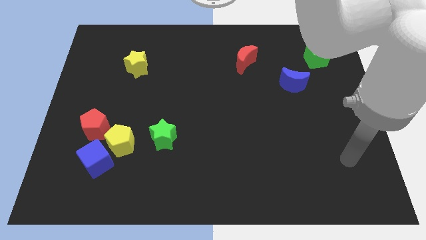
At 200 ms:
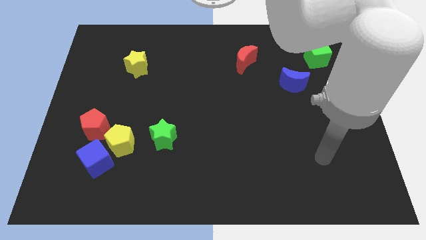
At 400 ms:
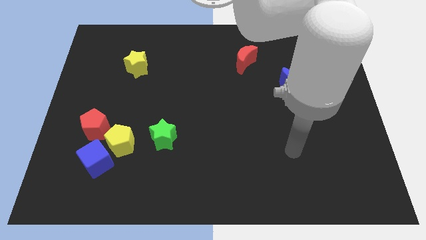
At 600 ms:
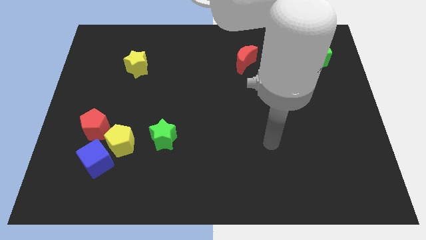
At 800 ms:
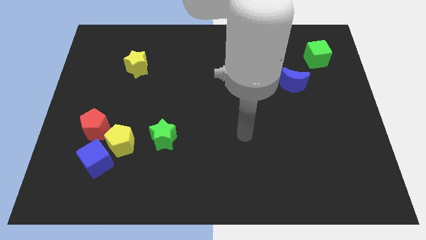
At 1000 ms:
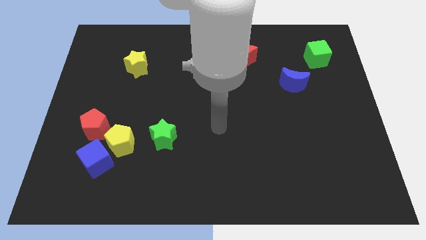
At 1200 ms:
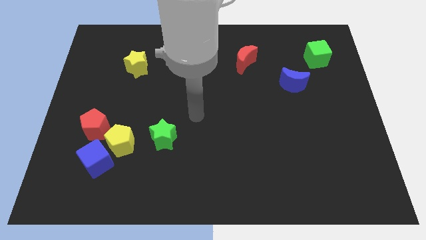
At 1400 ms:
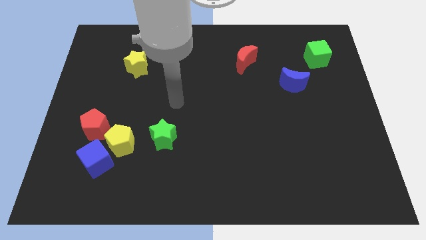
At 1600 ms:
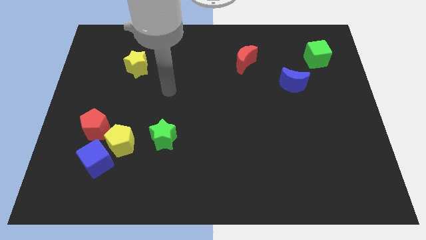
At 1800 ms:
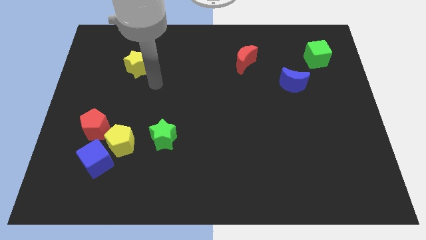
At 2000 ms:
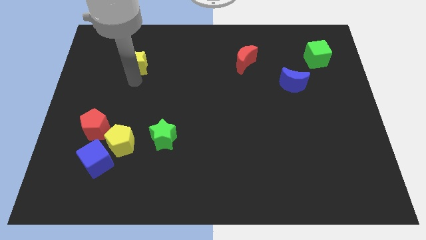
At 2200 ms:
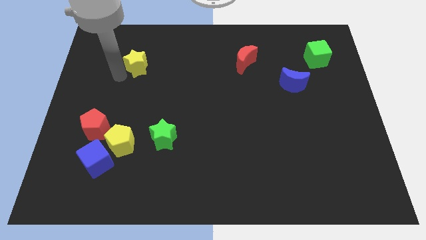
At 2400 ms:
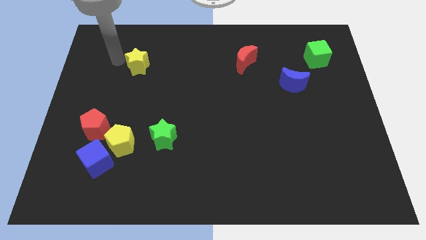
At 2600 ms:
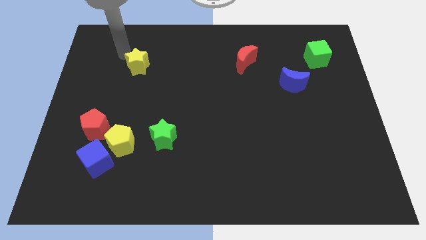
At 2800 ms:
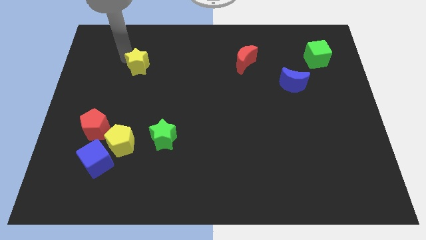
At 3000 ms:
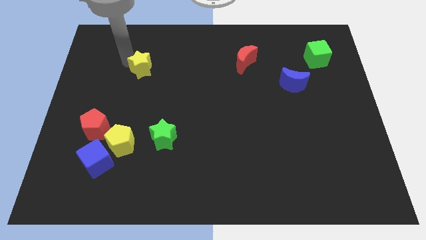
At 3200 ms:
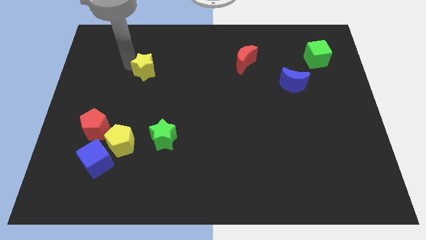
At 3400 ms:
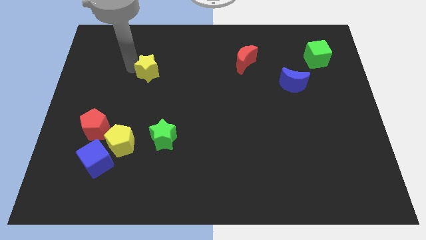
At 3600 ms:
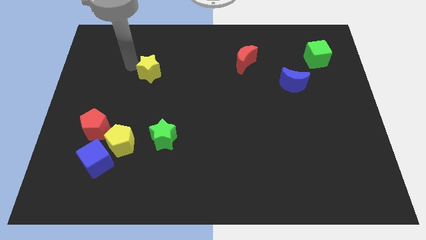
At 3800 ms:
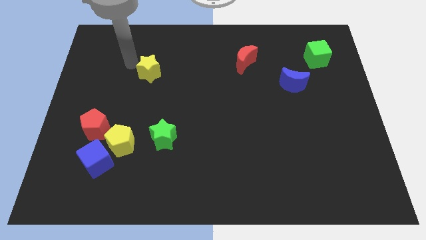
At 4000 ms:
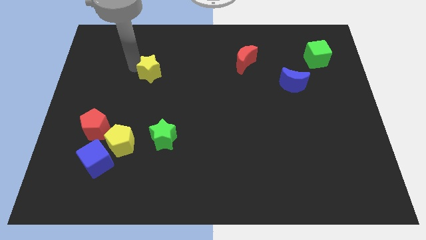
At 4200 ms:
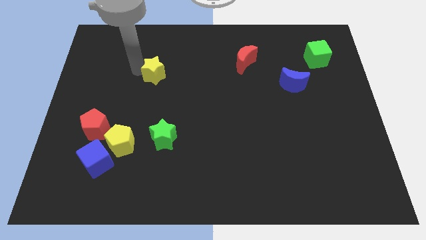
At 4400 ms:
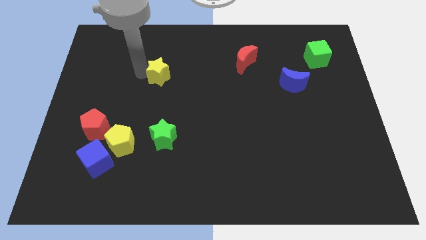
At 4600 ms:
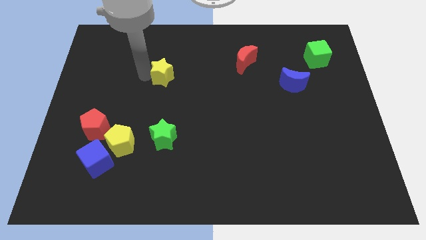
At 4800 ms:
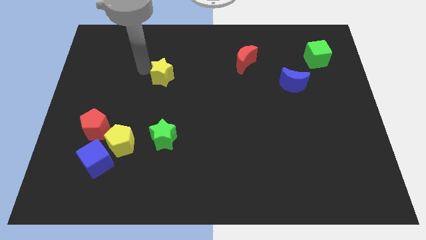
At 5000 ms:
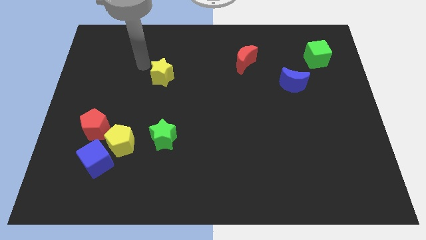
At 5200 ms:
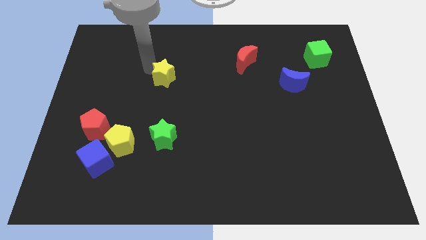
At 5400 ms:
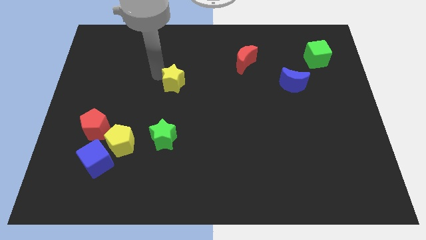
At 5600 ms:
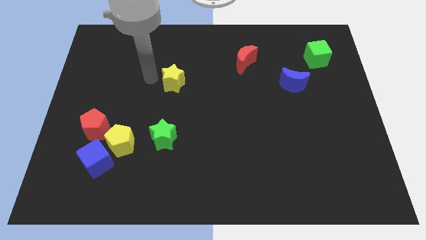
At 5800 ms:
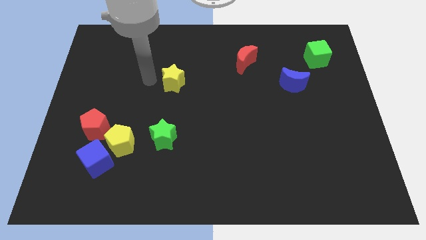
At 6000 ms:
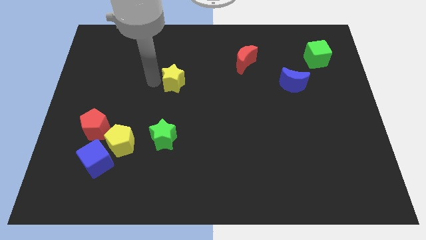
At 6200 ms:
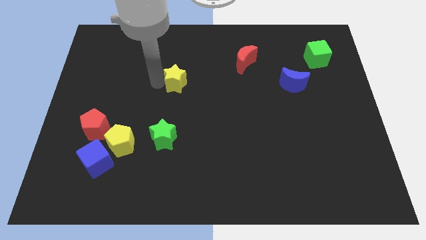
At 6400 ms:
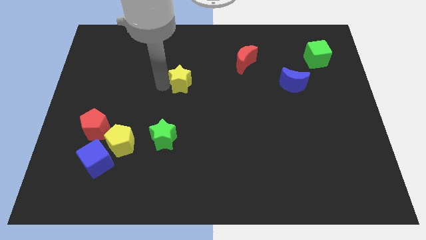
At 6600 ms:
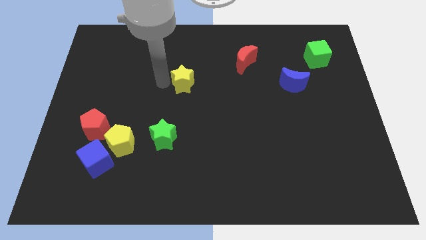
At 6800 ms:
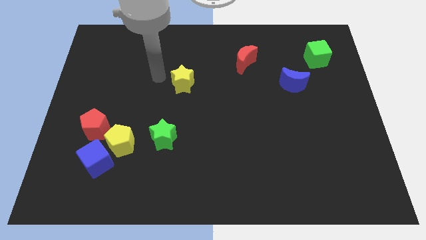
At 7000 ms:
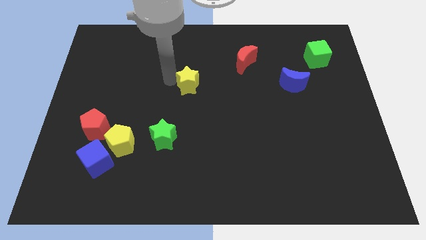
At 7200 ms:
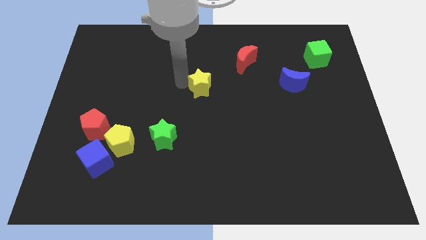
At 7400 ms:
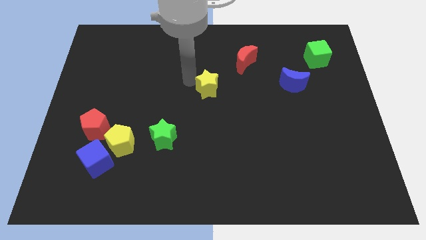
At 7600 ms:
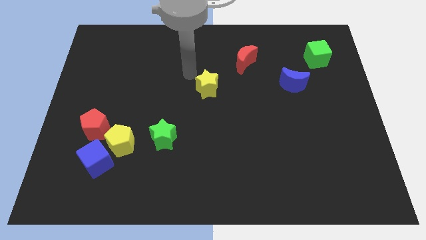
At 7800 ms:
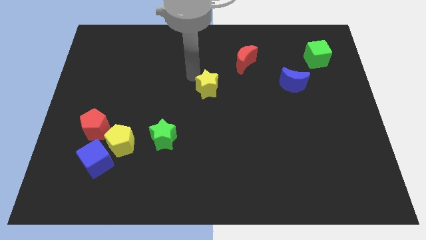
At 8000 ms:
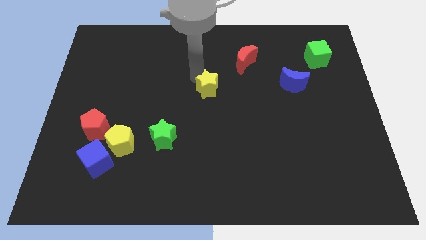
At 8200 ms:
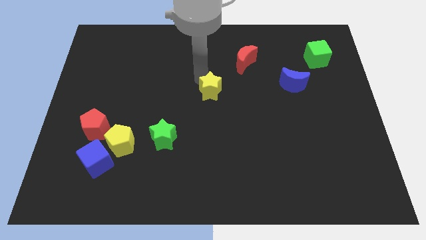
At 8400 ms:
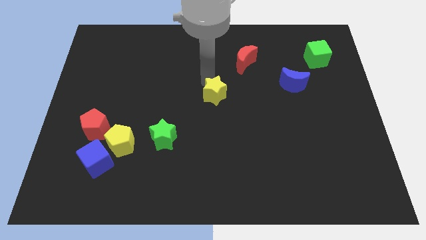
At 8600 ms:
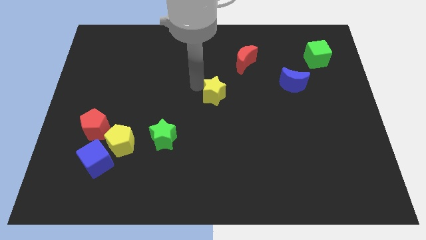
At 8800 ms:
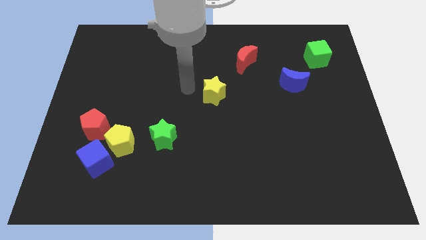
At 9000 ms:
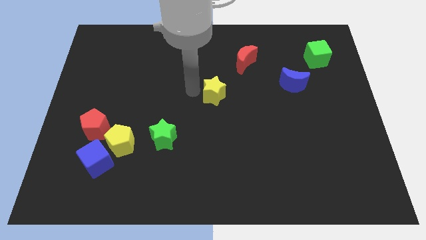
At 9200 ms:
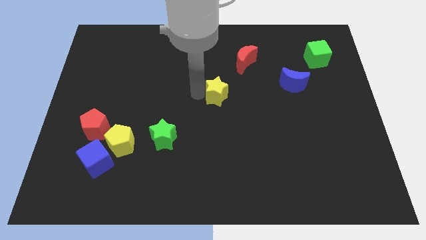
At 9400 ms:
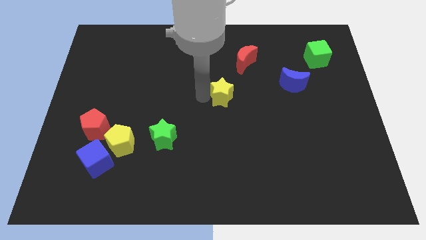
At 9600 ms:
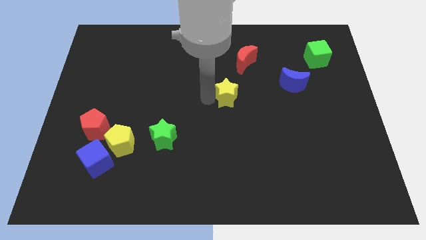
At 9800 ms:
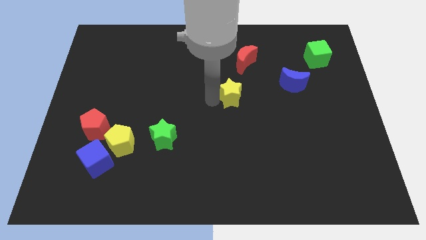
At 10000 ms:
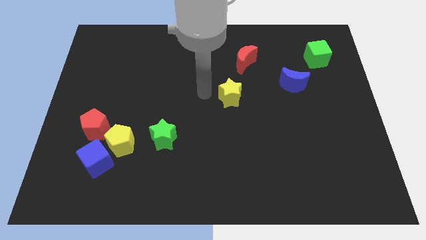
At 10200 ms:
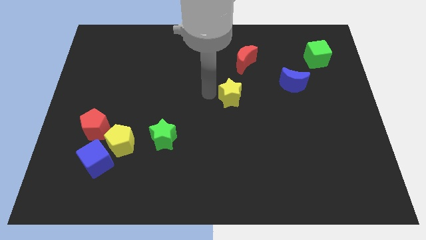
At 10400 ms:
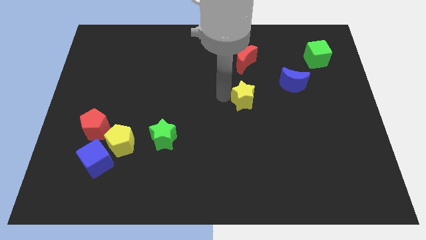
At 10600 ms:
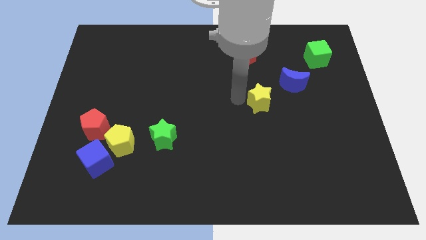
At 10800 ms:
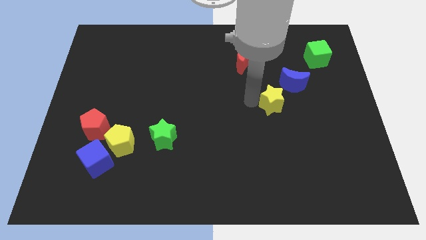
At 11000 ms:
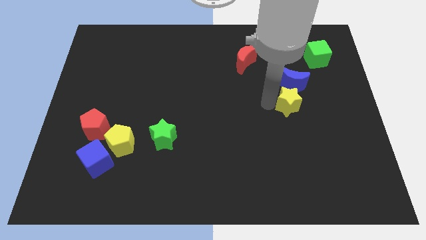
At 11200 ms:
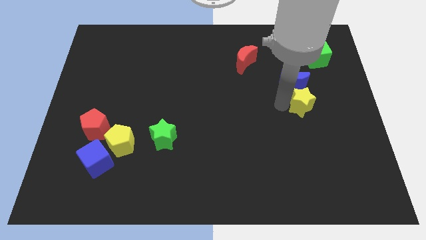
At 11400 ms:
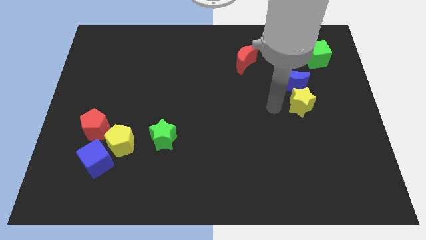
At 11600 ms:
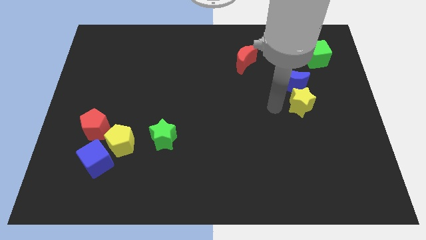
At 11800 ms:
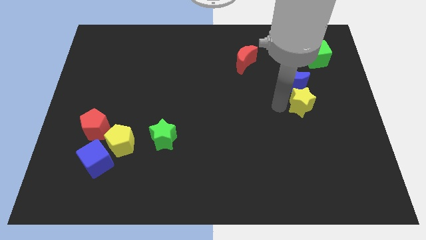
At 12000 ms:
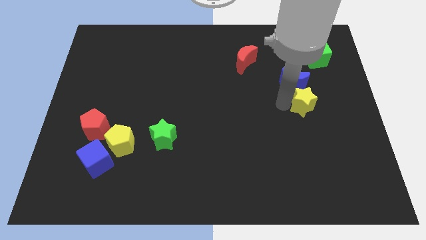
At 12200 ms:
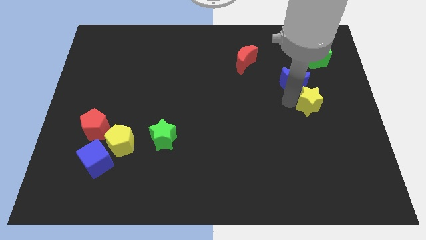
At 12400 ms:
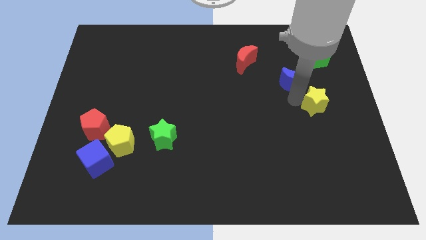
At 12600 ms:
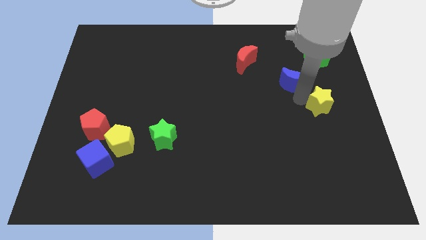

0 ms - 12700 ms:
put the yellow star to the center right
